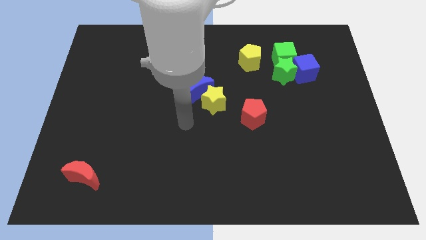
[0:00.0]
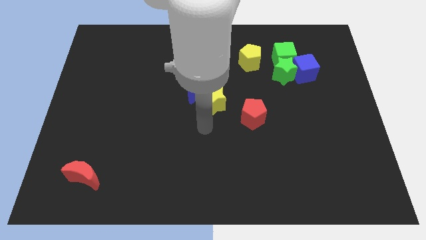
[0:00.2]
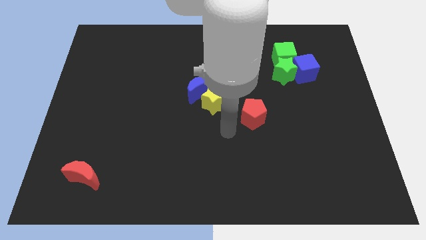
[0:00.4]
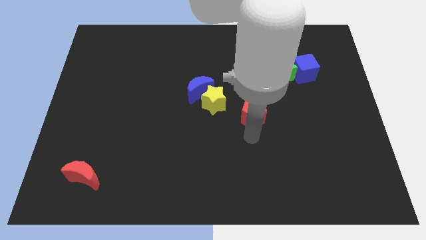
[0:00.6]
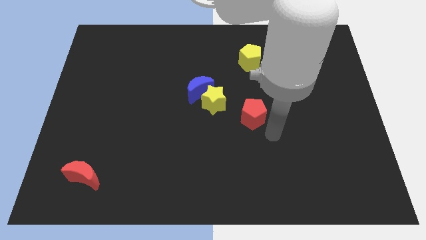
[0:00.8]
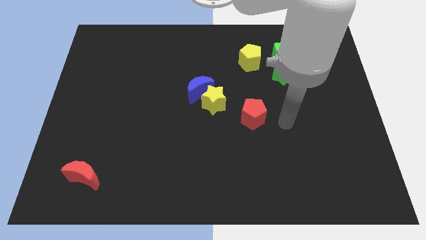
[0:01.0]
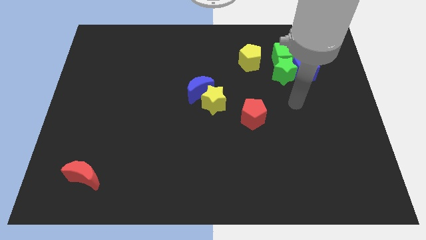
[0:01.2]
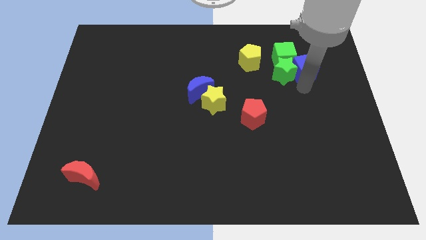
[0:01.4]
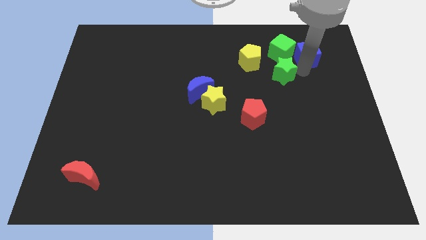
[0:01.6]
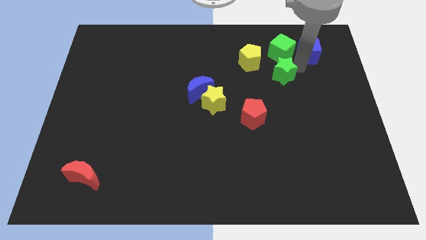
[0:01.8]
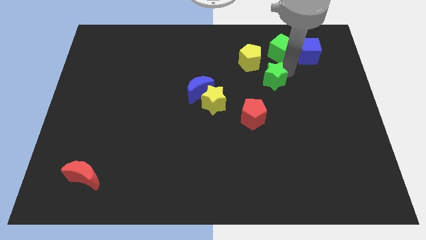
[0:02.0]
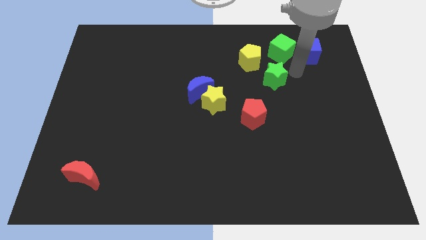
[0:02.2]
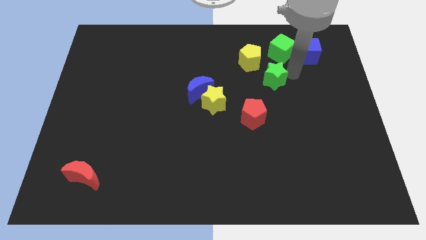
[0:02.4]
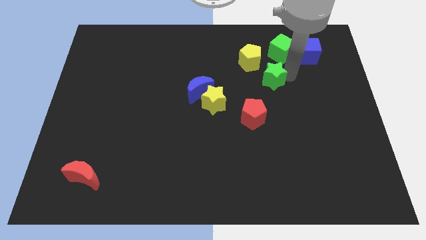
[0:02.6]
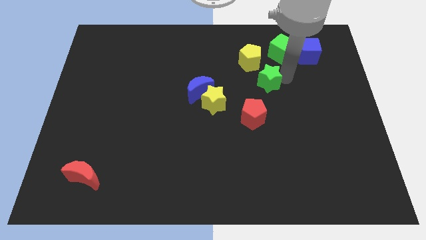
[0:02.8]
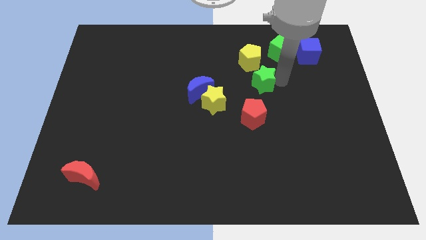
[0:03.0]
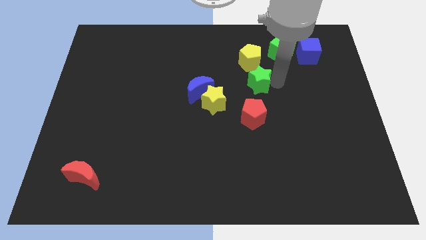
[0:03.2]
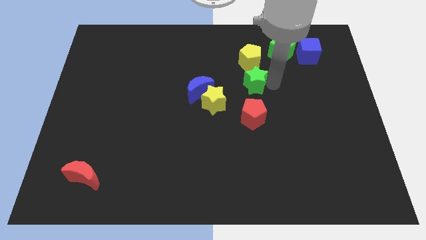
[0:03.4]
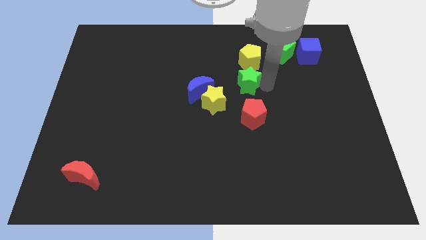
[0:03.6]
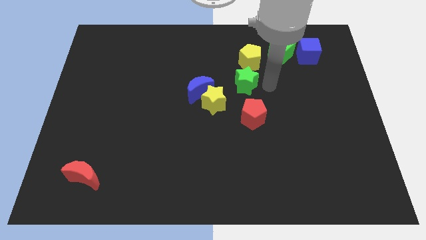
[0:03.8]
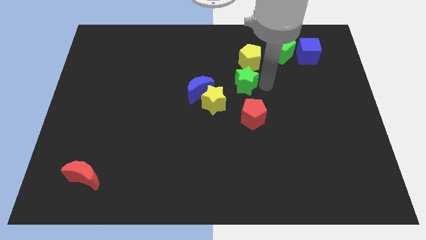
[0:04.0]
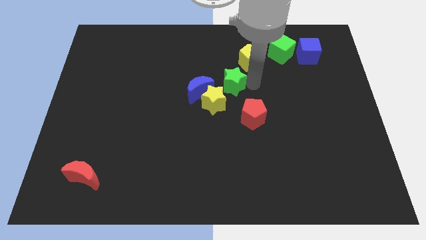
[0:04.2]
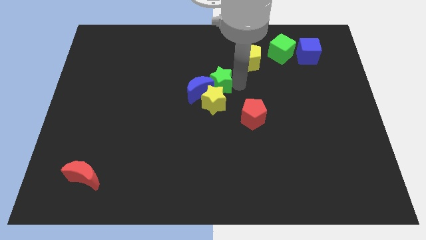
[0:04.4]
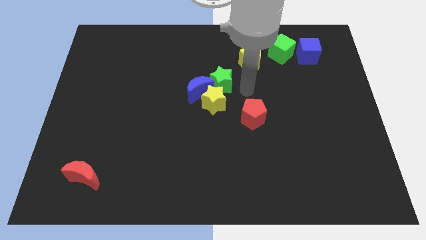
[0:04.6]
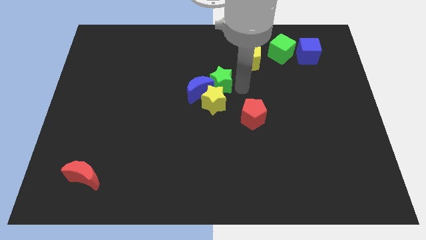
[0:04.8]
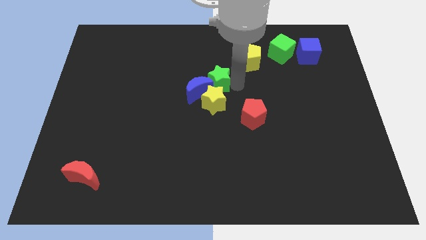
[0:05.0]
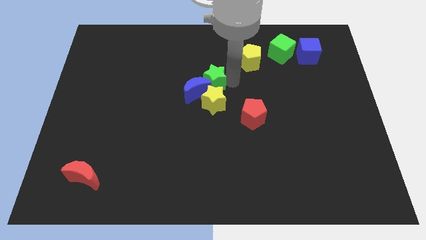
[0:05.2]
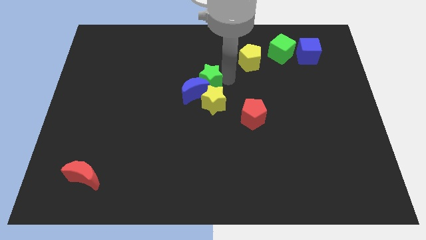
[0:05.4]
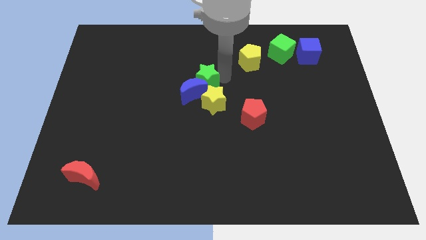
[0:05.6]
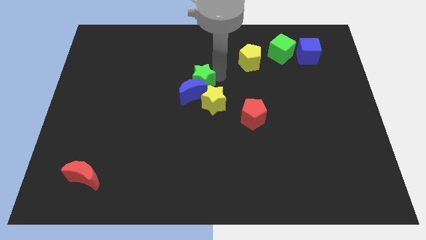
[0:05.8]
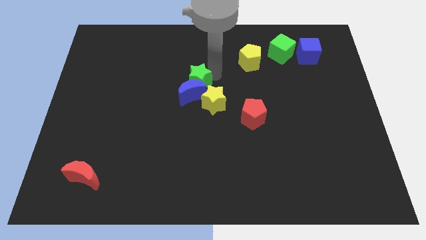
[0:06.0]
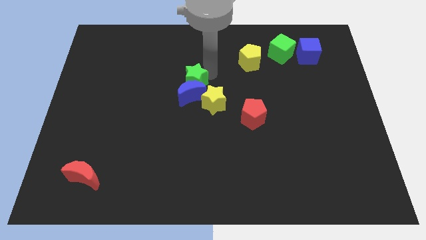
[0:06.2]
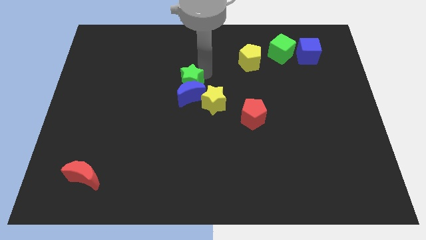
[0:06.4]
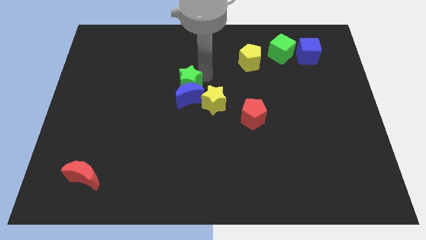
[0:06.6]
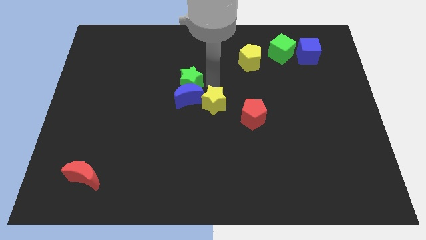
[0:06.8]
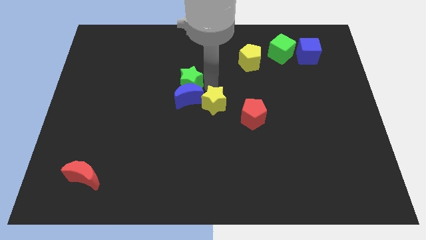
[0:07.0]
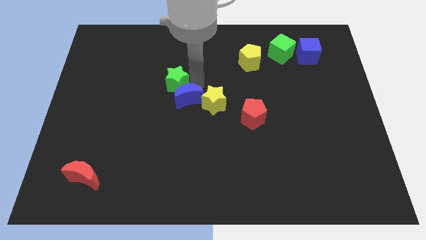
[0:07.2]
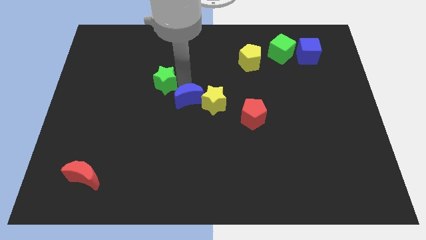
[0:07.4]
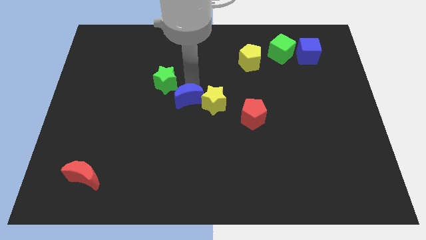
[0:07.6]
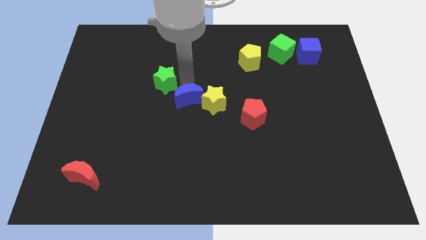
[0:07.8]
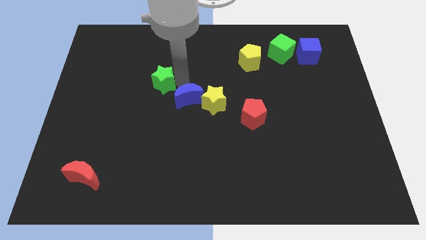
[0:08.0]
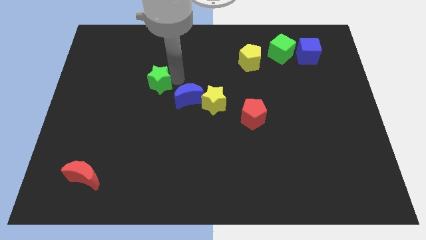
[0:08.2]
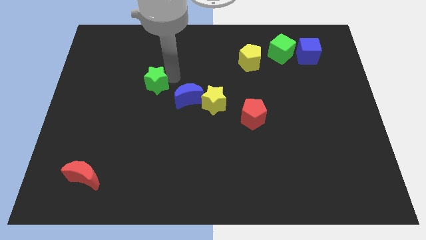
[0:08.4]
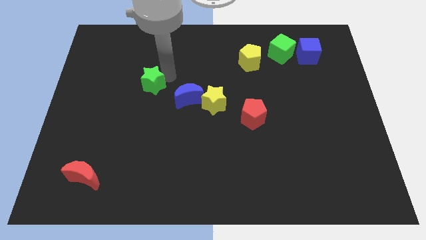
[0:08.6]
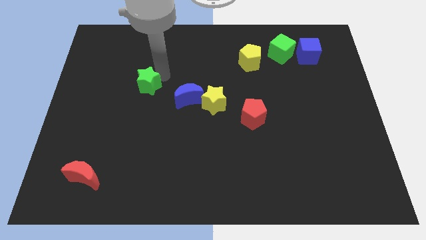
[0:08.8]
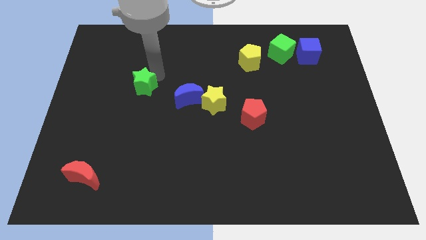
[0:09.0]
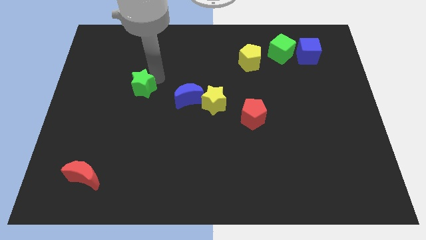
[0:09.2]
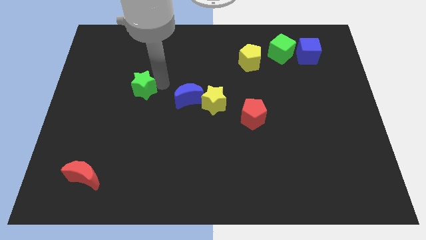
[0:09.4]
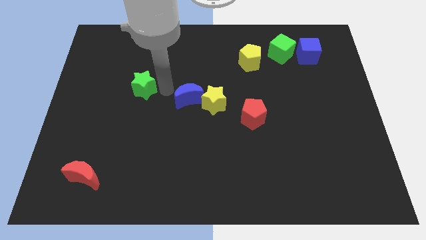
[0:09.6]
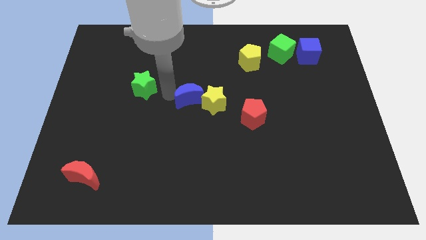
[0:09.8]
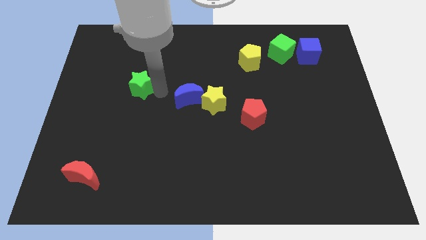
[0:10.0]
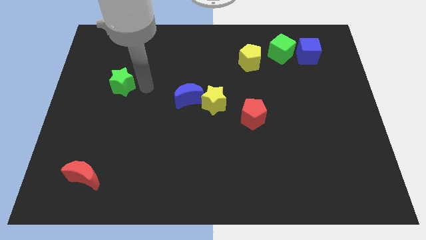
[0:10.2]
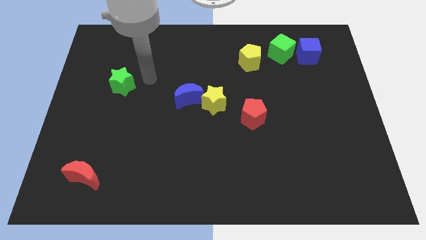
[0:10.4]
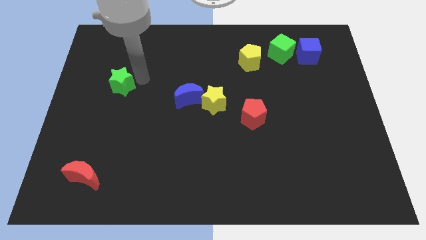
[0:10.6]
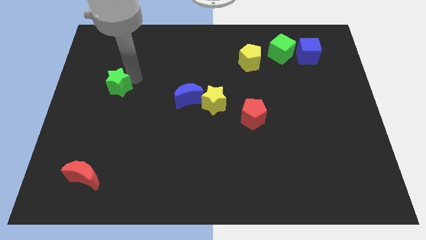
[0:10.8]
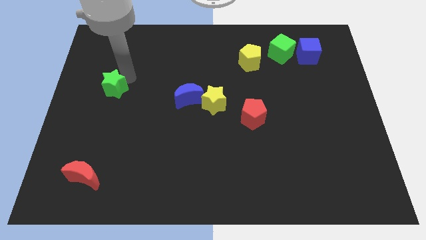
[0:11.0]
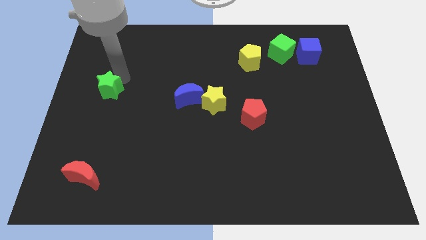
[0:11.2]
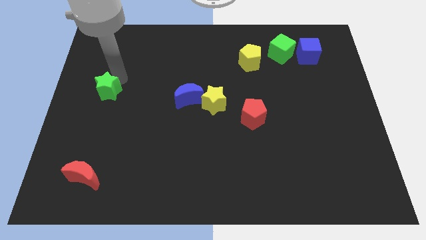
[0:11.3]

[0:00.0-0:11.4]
push the green star to the left side

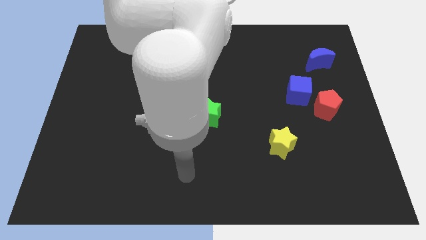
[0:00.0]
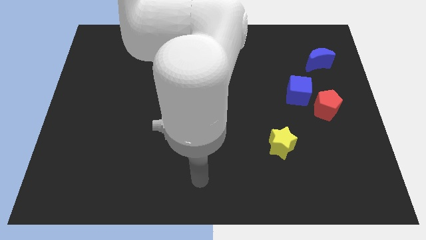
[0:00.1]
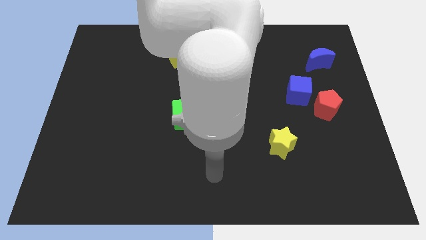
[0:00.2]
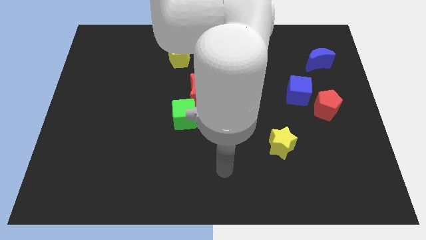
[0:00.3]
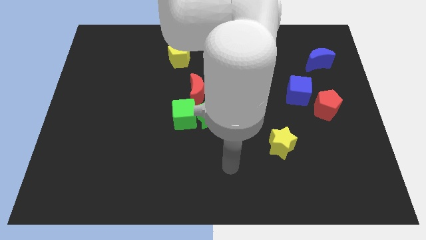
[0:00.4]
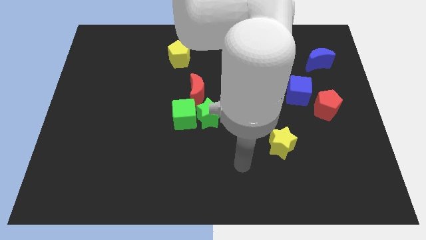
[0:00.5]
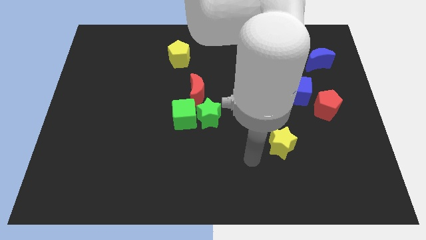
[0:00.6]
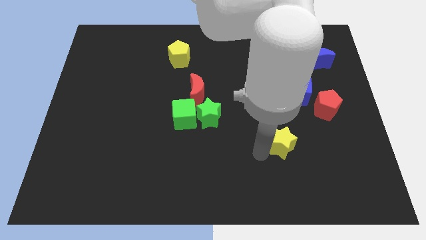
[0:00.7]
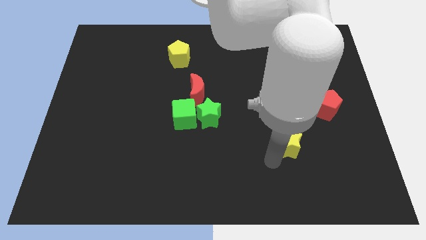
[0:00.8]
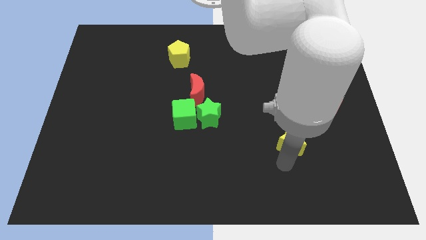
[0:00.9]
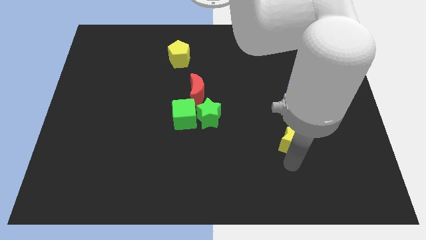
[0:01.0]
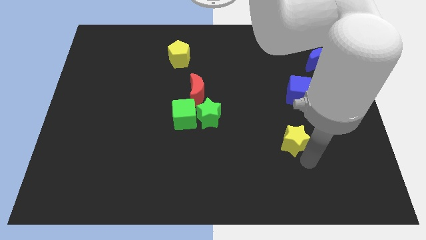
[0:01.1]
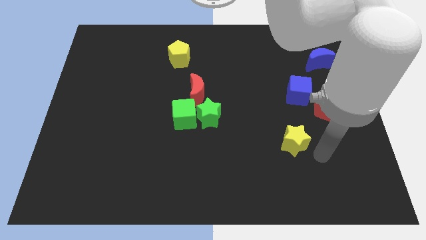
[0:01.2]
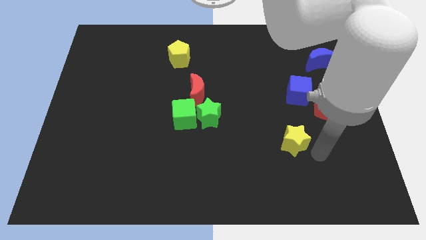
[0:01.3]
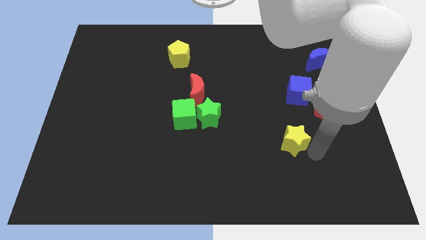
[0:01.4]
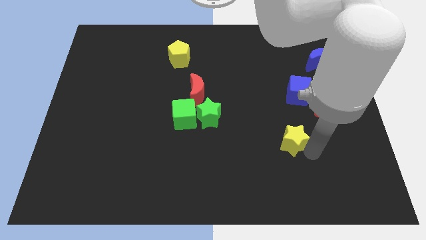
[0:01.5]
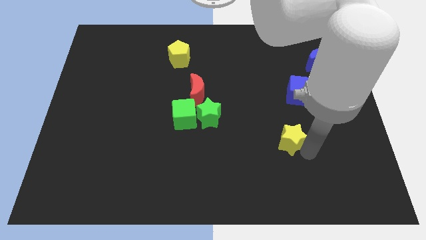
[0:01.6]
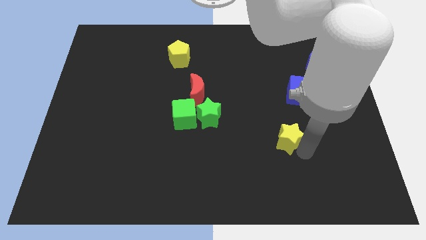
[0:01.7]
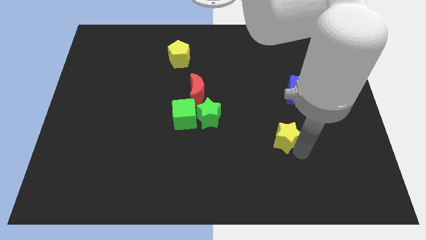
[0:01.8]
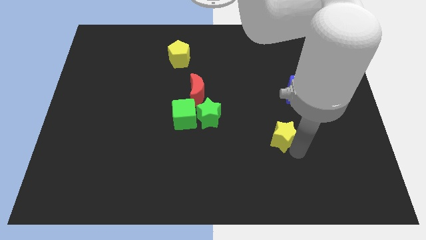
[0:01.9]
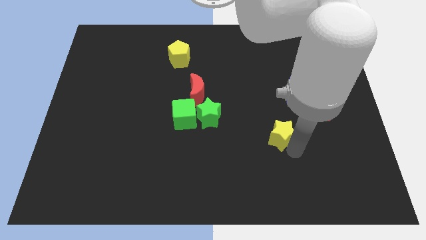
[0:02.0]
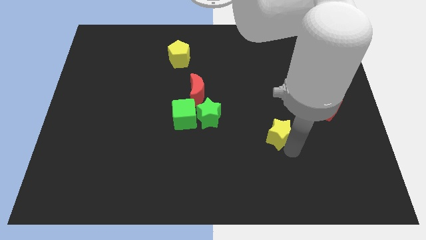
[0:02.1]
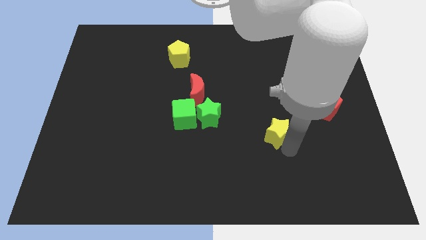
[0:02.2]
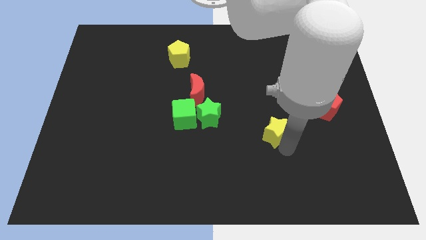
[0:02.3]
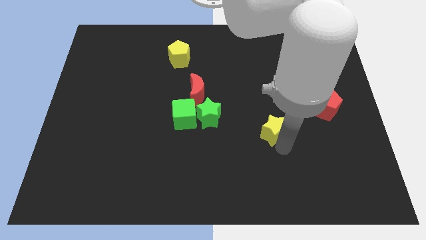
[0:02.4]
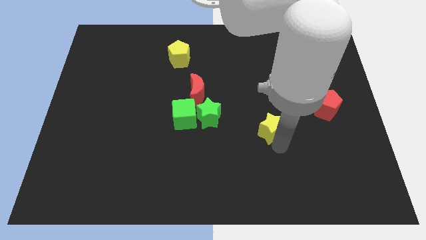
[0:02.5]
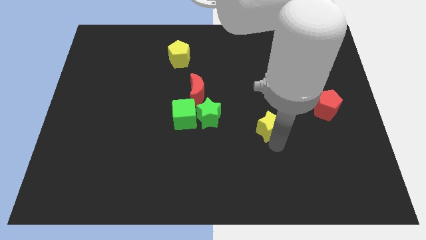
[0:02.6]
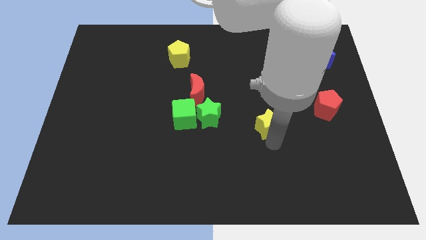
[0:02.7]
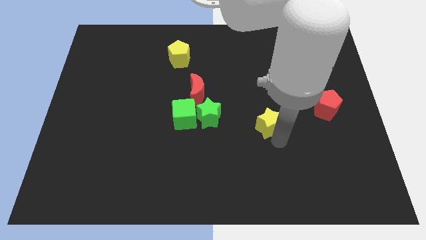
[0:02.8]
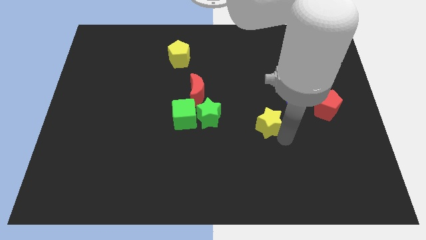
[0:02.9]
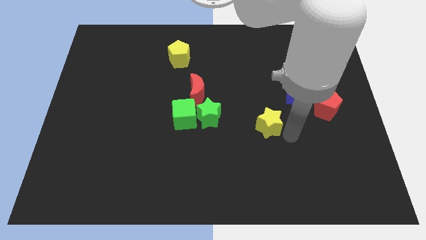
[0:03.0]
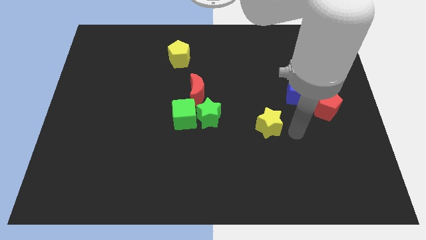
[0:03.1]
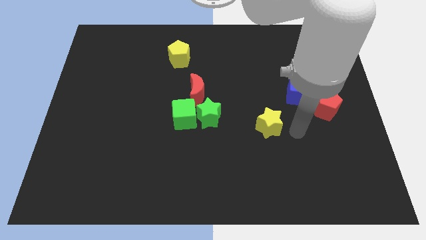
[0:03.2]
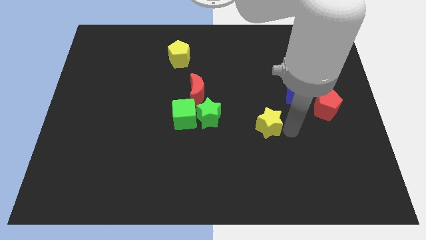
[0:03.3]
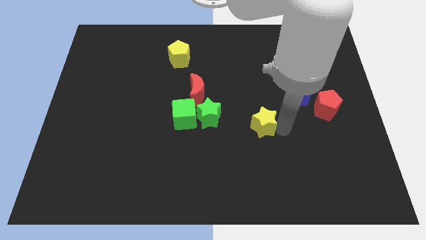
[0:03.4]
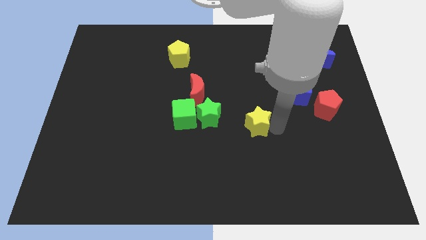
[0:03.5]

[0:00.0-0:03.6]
put the yellow star to the middle
